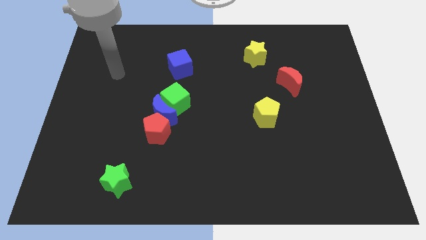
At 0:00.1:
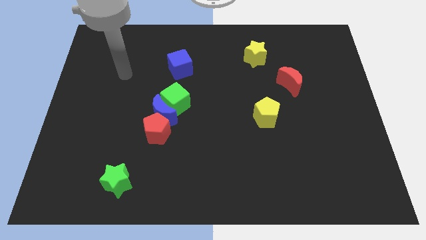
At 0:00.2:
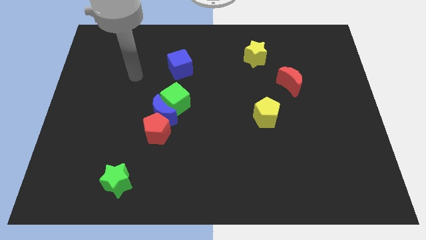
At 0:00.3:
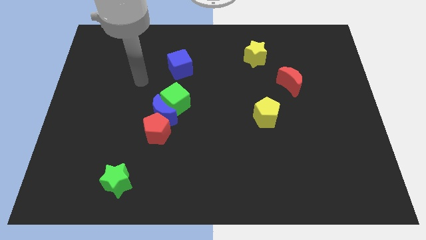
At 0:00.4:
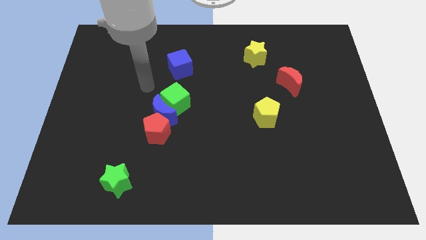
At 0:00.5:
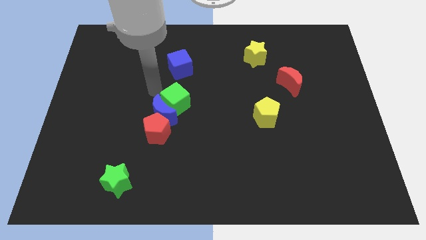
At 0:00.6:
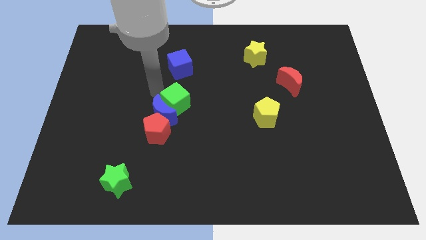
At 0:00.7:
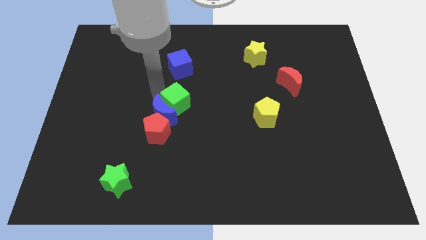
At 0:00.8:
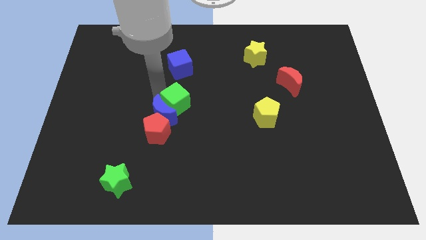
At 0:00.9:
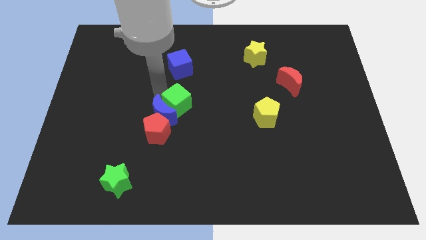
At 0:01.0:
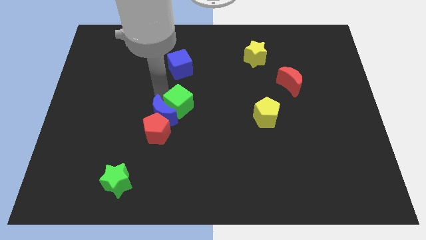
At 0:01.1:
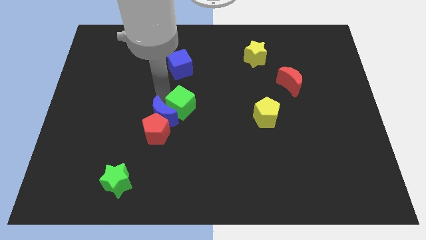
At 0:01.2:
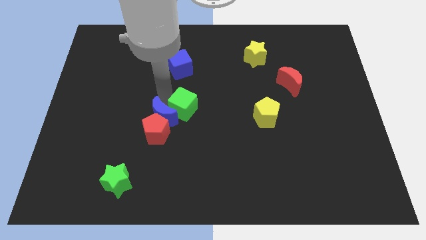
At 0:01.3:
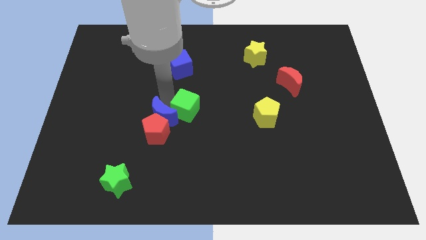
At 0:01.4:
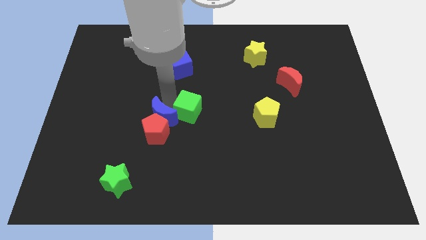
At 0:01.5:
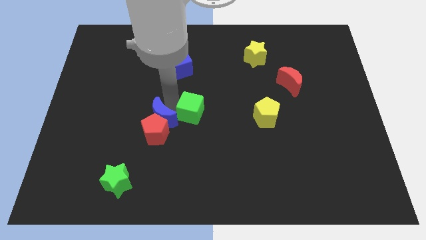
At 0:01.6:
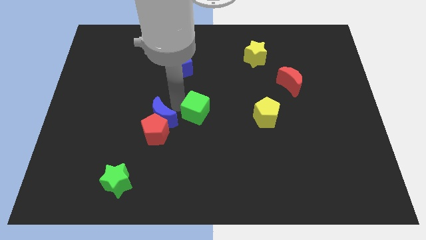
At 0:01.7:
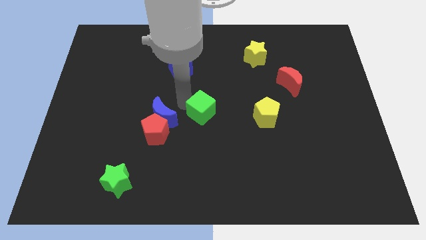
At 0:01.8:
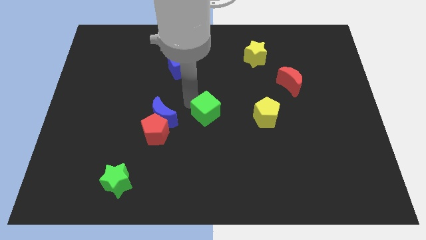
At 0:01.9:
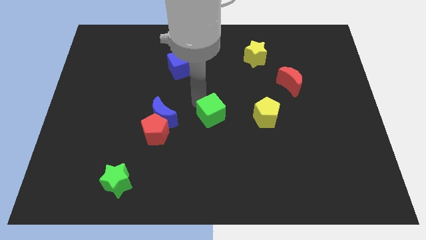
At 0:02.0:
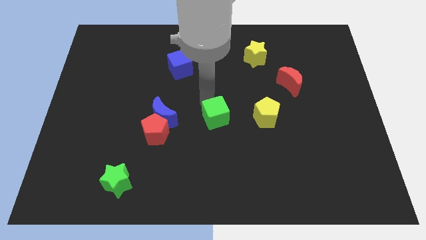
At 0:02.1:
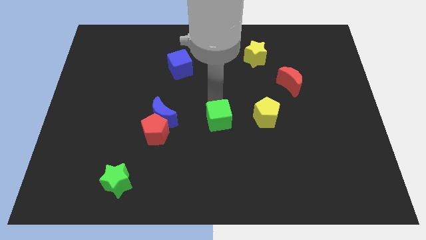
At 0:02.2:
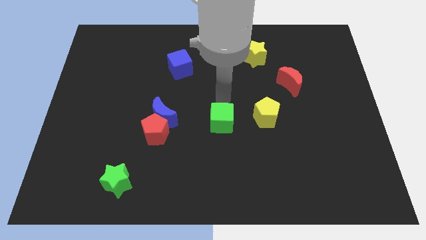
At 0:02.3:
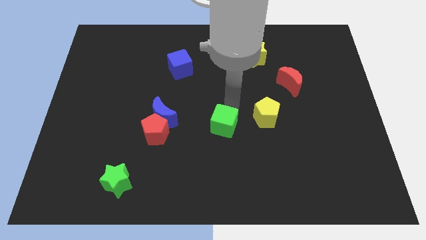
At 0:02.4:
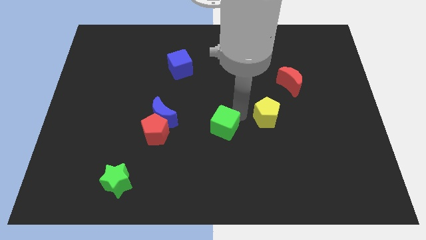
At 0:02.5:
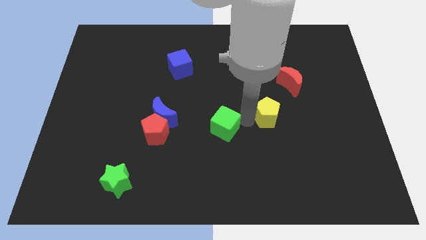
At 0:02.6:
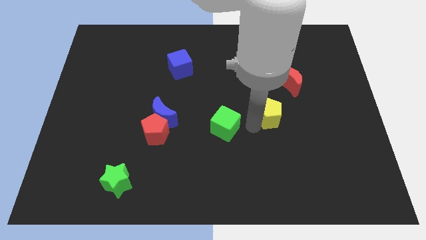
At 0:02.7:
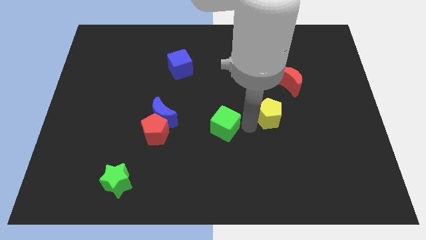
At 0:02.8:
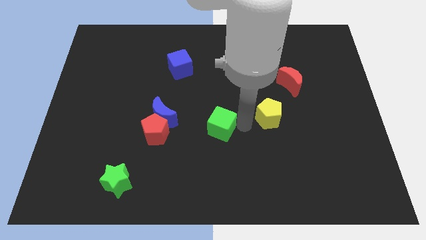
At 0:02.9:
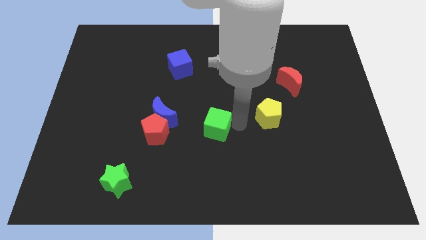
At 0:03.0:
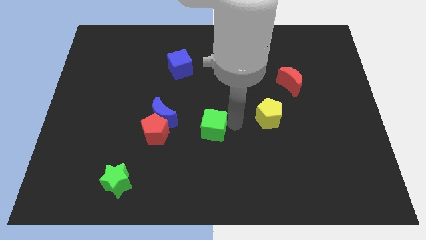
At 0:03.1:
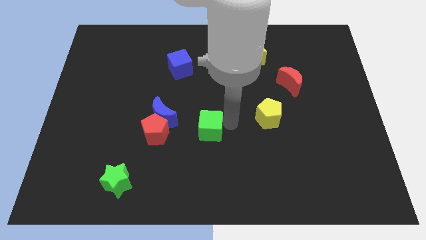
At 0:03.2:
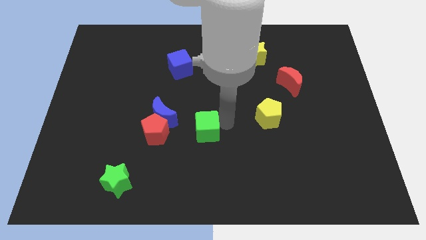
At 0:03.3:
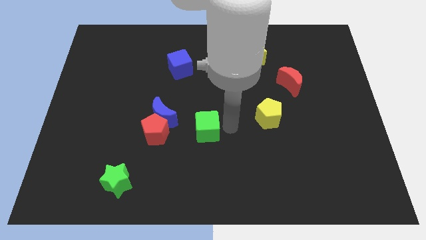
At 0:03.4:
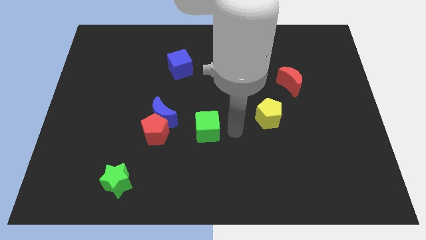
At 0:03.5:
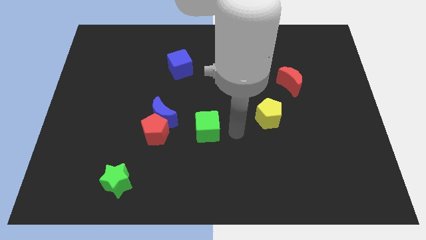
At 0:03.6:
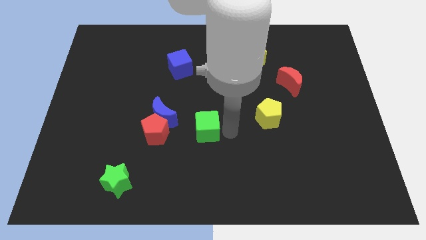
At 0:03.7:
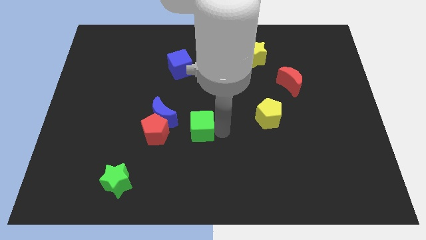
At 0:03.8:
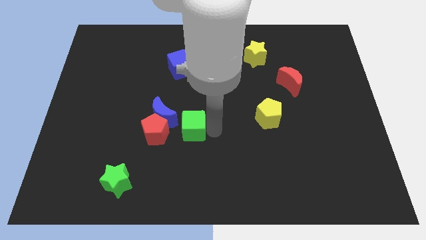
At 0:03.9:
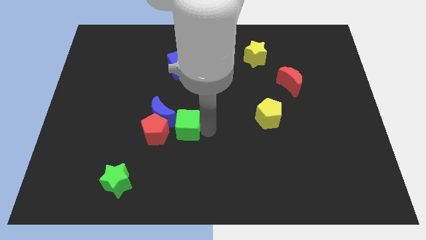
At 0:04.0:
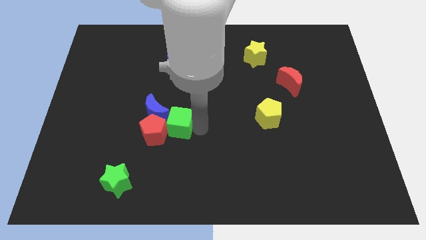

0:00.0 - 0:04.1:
move the green cube close to the red pentagon

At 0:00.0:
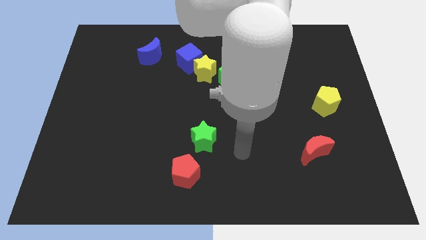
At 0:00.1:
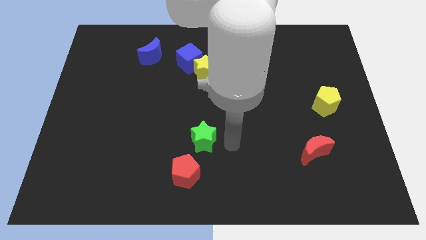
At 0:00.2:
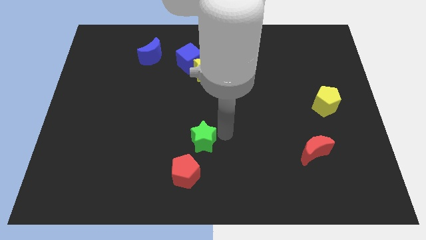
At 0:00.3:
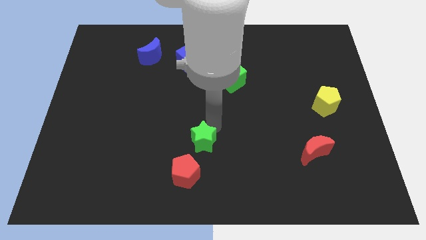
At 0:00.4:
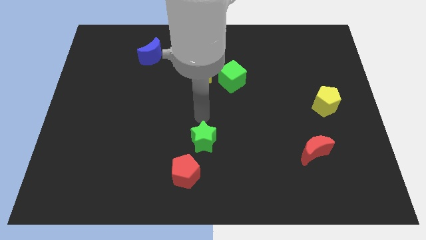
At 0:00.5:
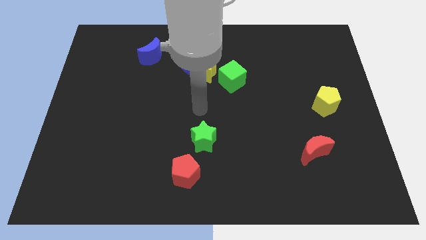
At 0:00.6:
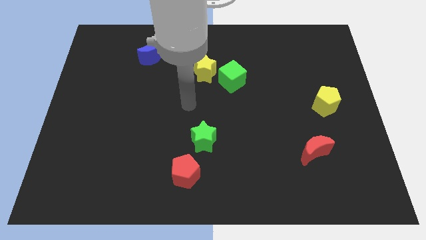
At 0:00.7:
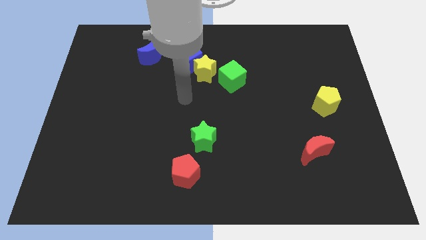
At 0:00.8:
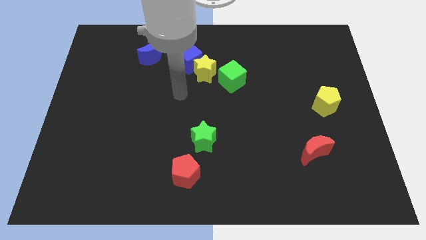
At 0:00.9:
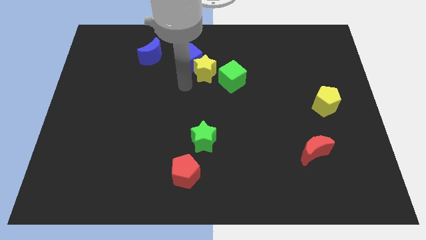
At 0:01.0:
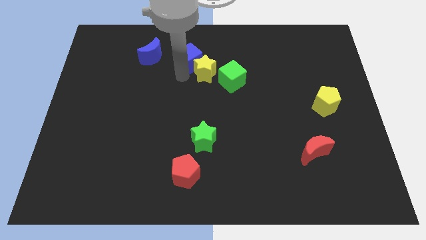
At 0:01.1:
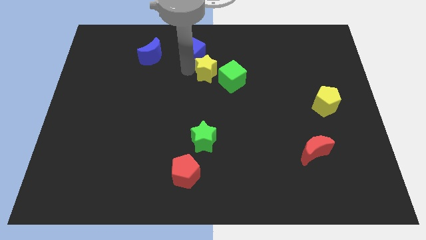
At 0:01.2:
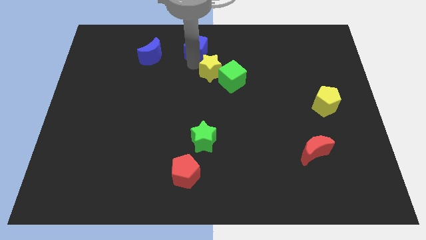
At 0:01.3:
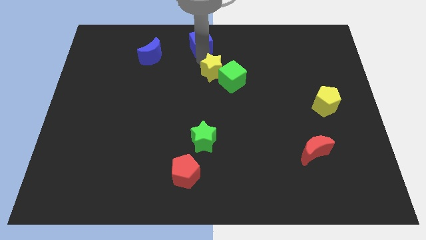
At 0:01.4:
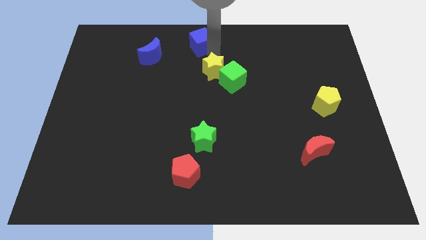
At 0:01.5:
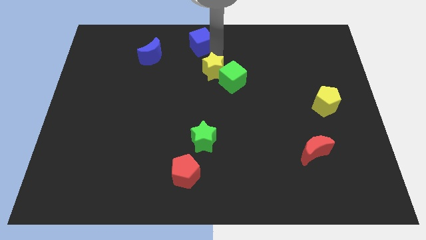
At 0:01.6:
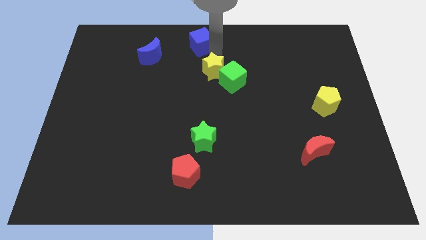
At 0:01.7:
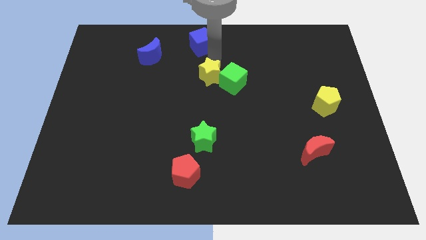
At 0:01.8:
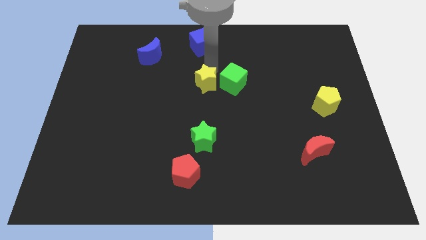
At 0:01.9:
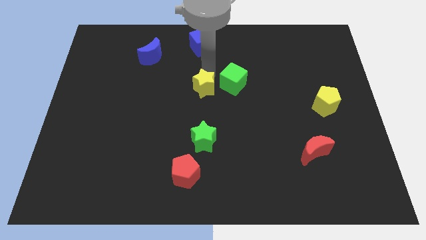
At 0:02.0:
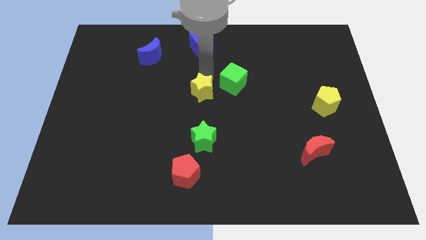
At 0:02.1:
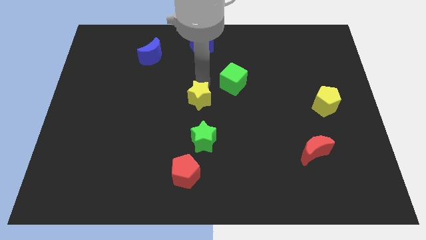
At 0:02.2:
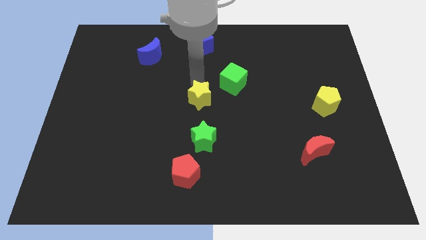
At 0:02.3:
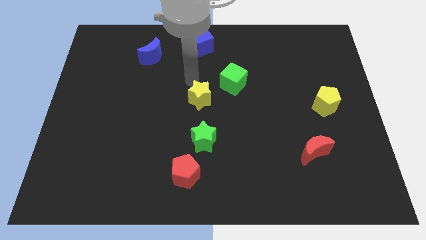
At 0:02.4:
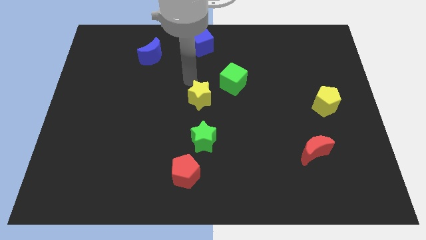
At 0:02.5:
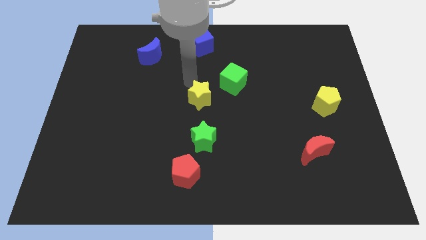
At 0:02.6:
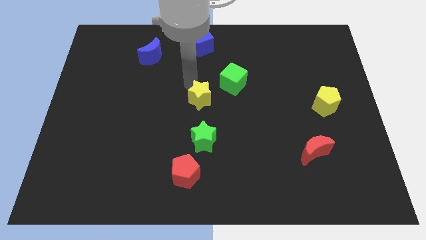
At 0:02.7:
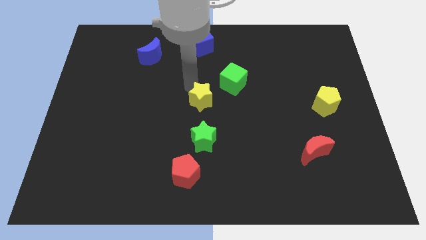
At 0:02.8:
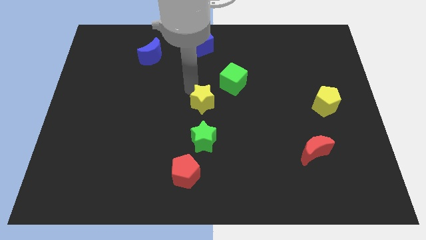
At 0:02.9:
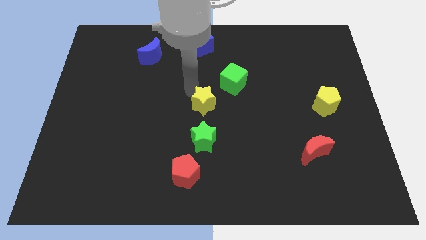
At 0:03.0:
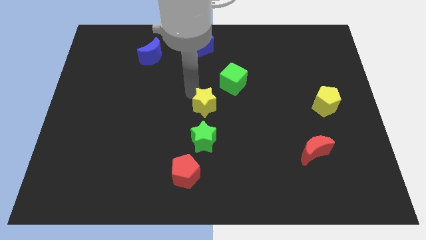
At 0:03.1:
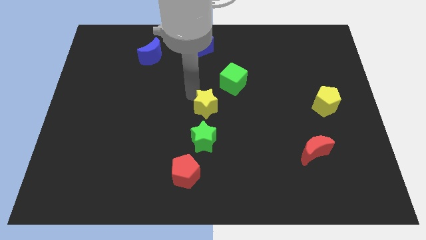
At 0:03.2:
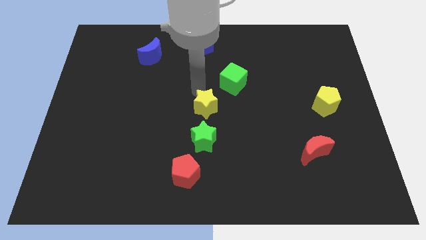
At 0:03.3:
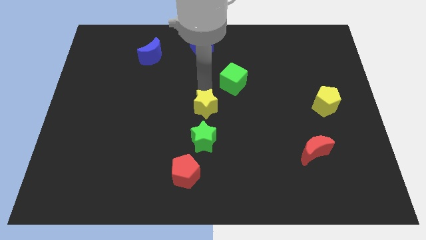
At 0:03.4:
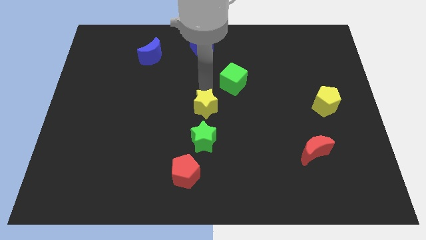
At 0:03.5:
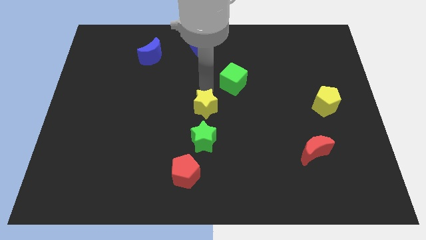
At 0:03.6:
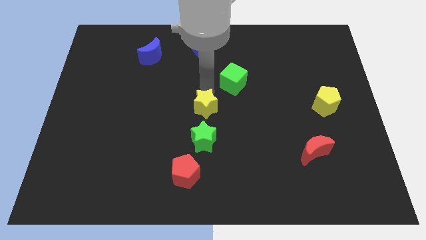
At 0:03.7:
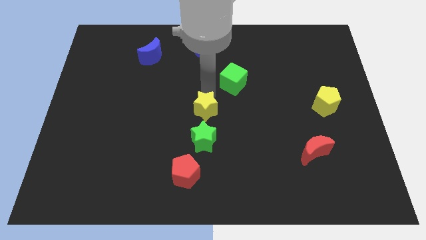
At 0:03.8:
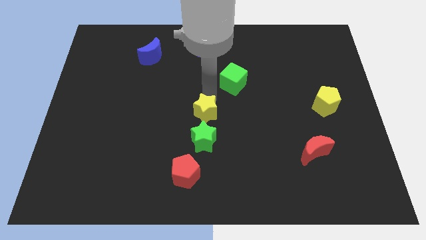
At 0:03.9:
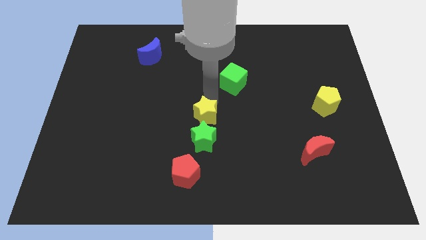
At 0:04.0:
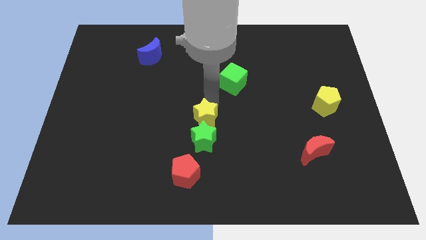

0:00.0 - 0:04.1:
put the yellow star to the green star
